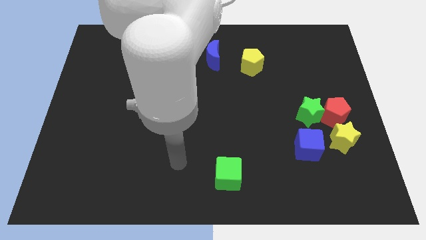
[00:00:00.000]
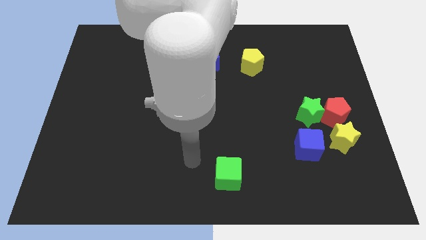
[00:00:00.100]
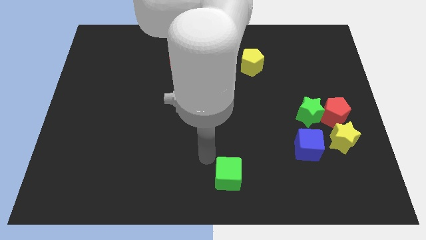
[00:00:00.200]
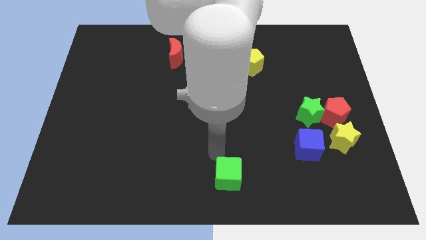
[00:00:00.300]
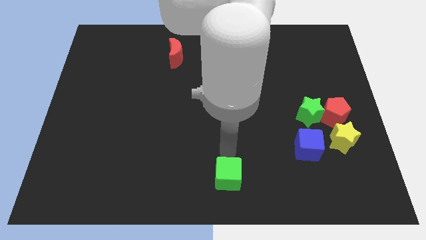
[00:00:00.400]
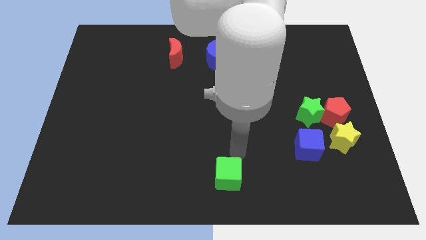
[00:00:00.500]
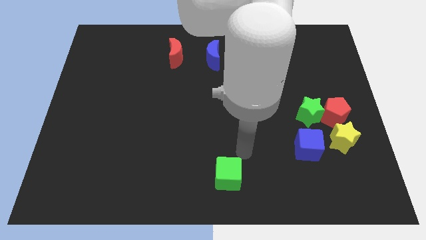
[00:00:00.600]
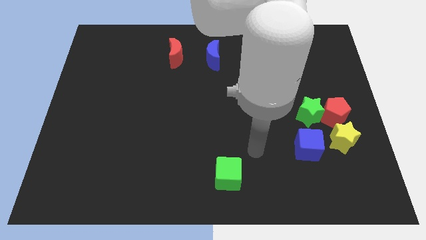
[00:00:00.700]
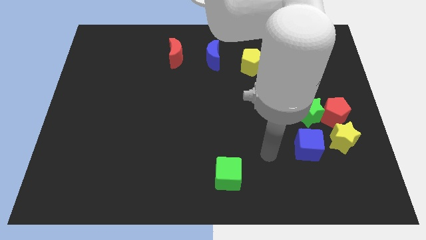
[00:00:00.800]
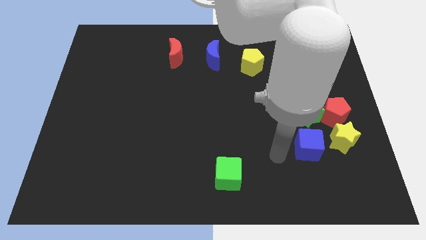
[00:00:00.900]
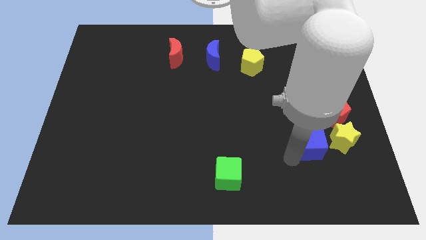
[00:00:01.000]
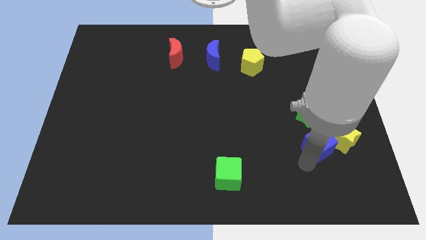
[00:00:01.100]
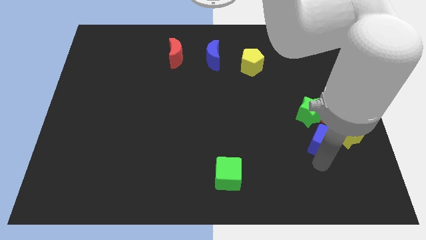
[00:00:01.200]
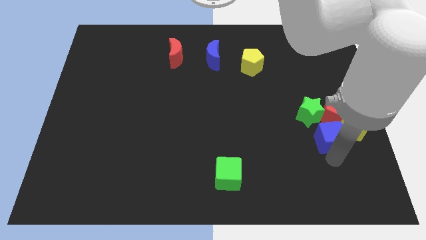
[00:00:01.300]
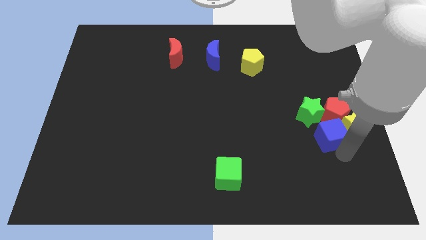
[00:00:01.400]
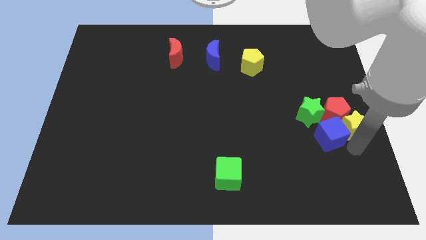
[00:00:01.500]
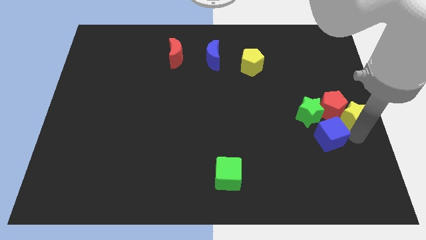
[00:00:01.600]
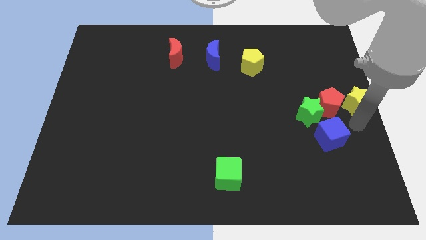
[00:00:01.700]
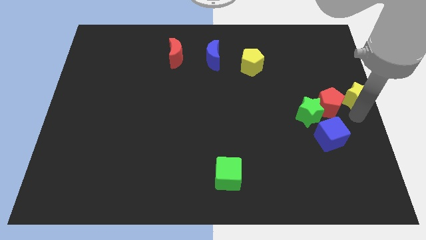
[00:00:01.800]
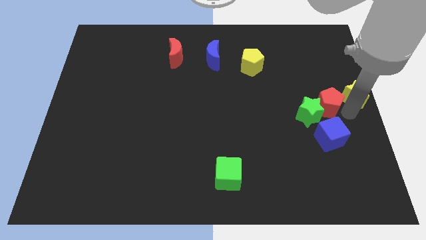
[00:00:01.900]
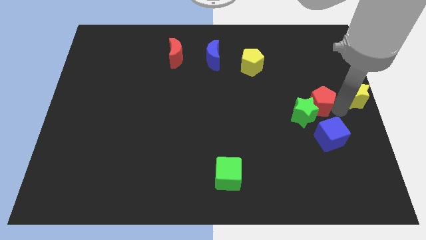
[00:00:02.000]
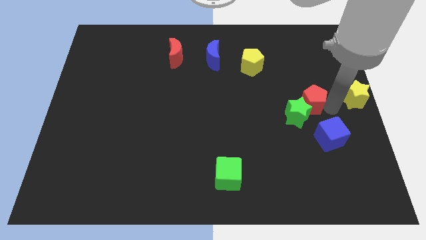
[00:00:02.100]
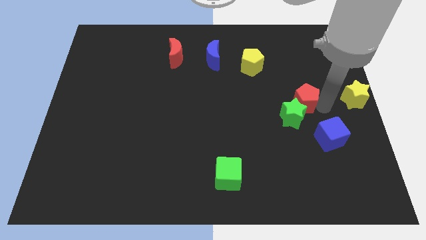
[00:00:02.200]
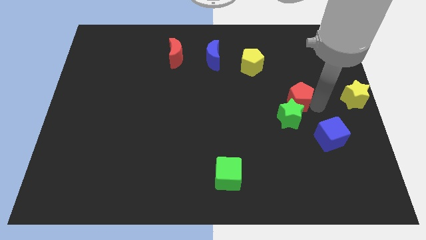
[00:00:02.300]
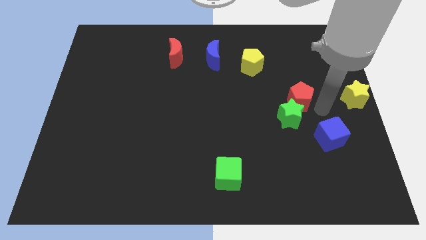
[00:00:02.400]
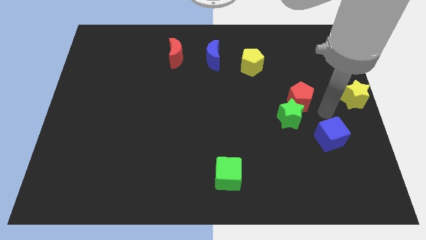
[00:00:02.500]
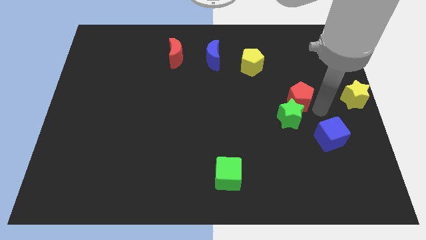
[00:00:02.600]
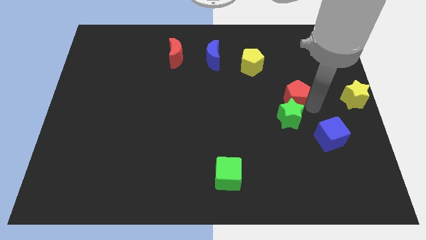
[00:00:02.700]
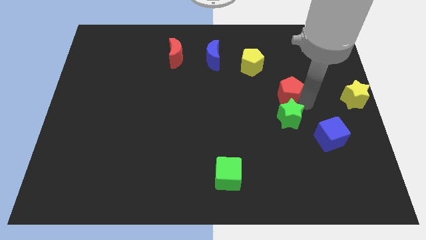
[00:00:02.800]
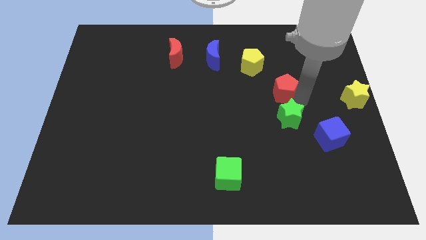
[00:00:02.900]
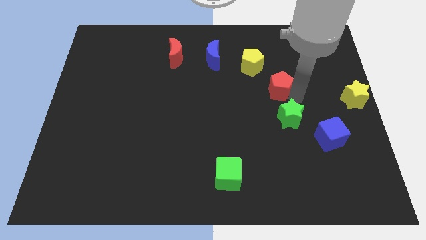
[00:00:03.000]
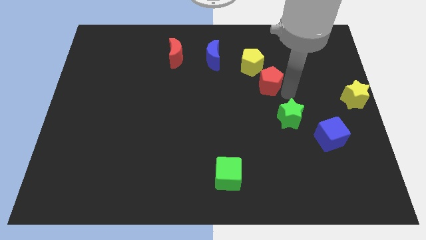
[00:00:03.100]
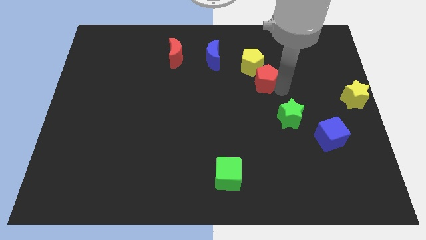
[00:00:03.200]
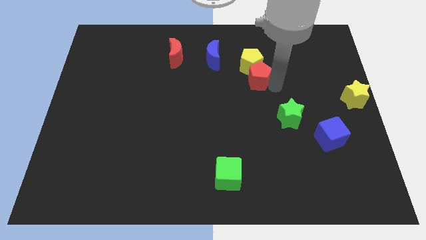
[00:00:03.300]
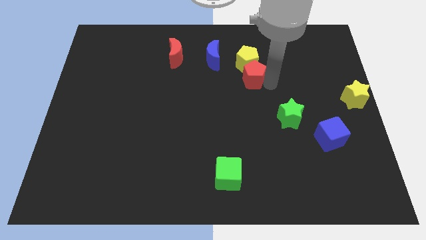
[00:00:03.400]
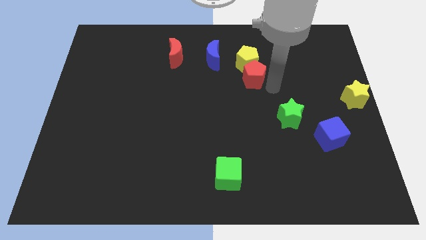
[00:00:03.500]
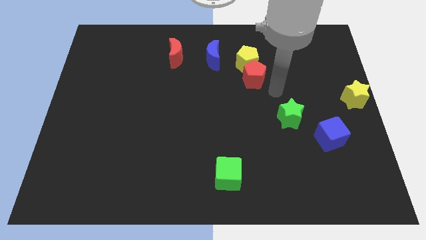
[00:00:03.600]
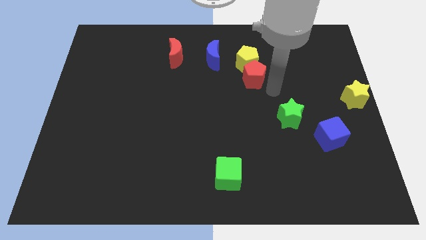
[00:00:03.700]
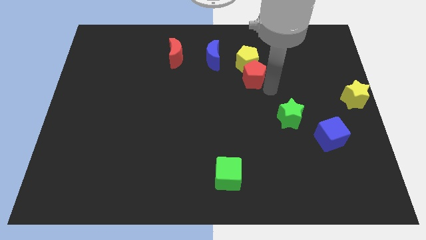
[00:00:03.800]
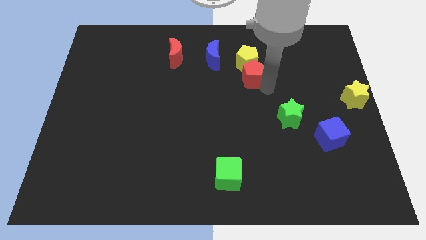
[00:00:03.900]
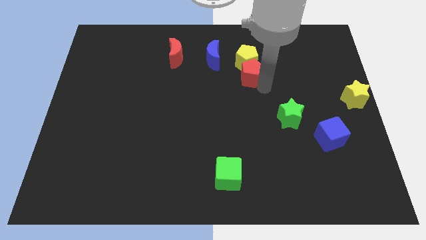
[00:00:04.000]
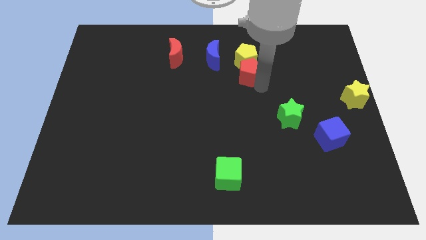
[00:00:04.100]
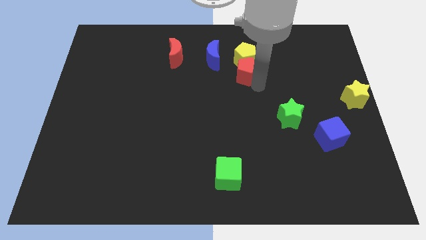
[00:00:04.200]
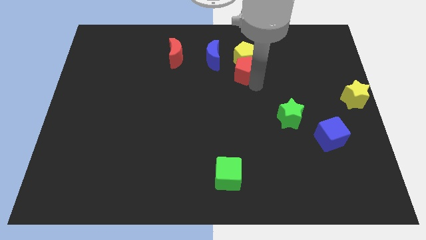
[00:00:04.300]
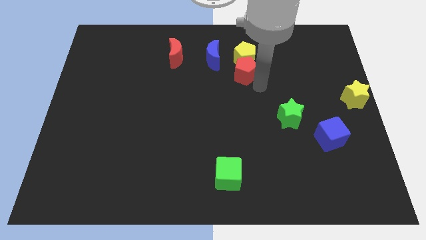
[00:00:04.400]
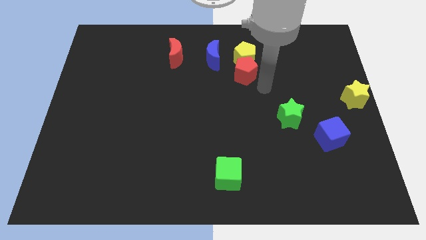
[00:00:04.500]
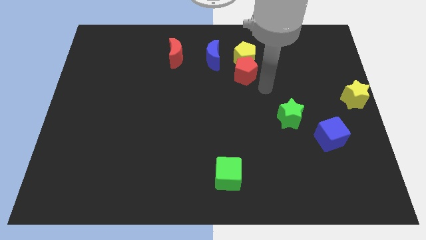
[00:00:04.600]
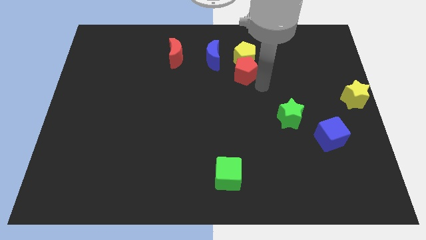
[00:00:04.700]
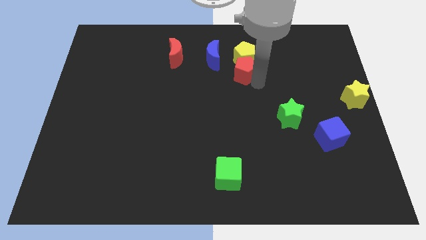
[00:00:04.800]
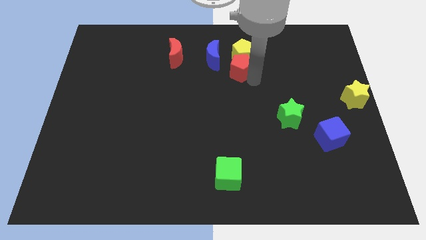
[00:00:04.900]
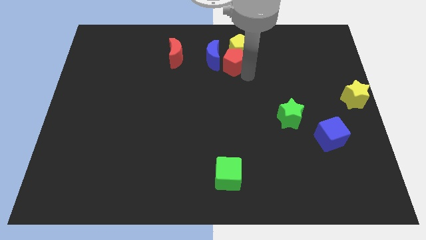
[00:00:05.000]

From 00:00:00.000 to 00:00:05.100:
slide the red pentagon towards the blue moon

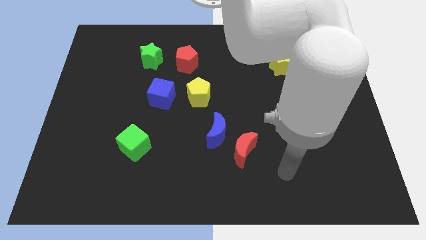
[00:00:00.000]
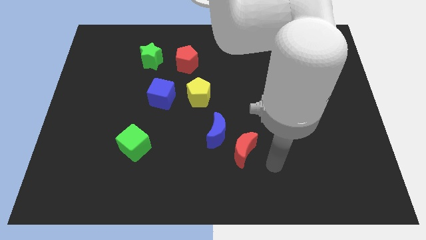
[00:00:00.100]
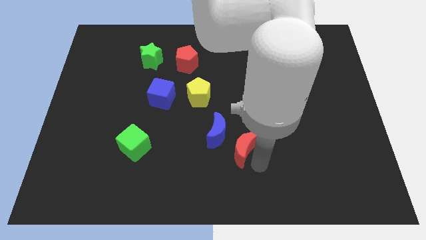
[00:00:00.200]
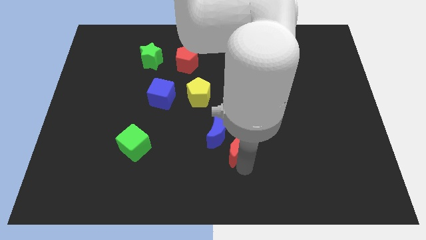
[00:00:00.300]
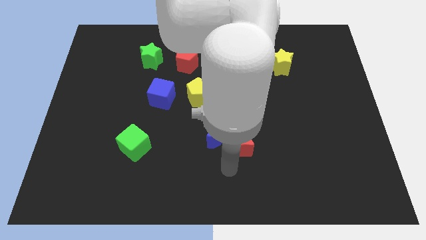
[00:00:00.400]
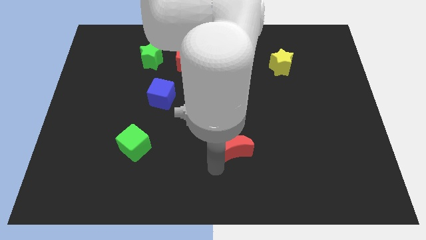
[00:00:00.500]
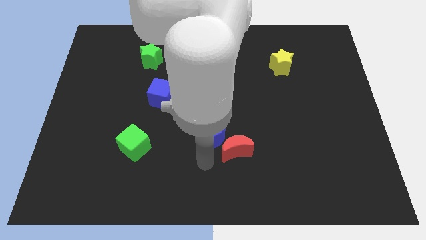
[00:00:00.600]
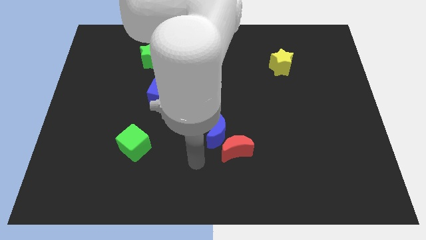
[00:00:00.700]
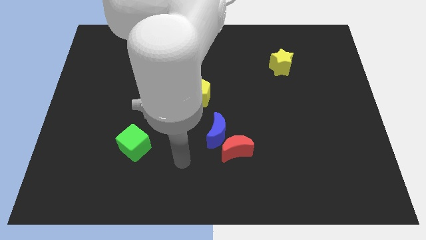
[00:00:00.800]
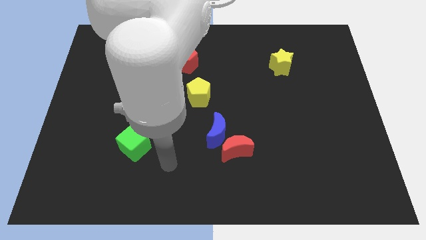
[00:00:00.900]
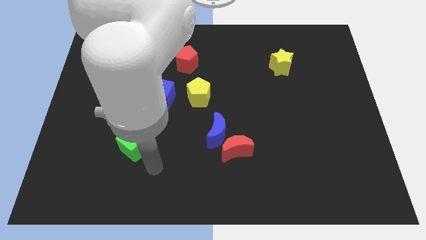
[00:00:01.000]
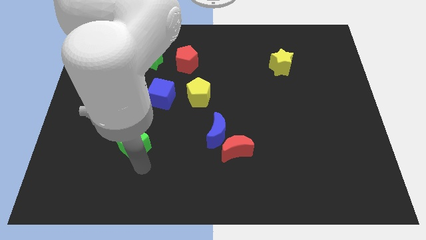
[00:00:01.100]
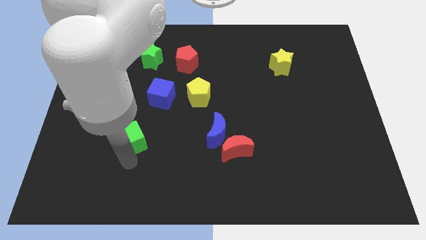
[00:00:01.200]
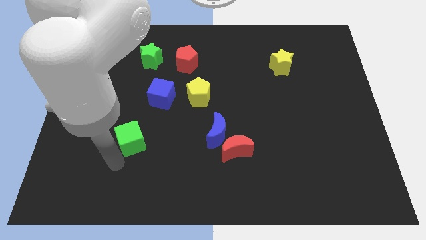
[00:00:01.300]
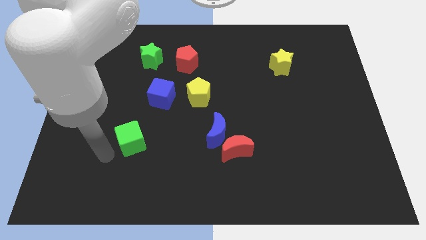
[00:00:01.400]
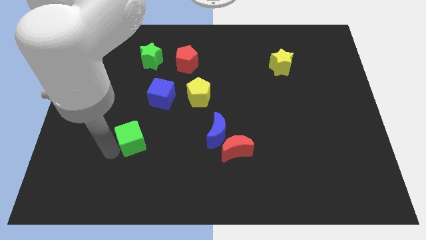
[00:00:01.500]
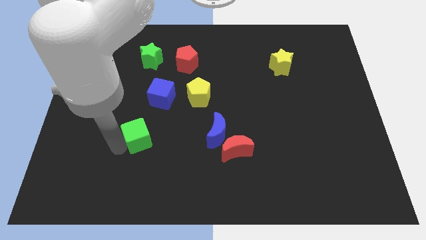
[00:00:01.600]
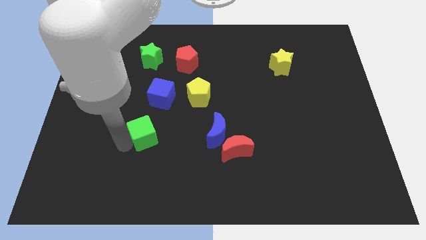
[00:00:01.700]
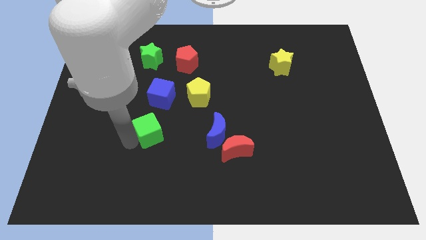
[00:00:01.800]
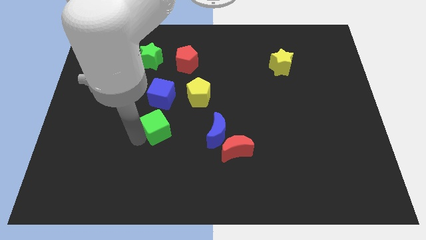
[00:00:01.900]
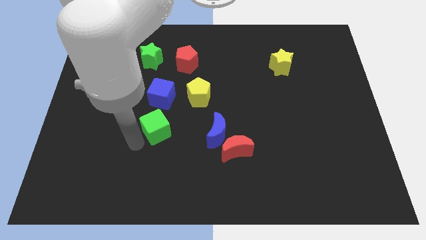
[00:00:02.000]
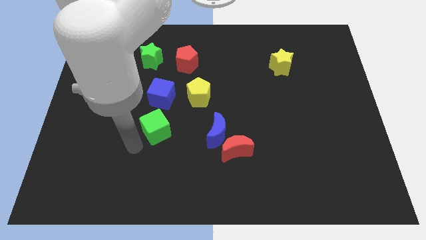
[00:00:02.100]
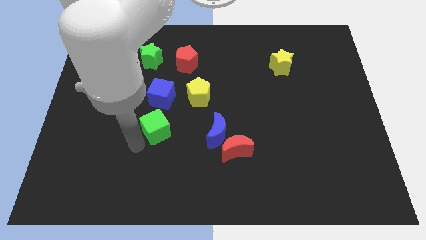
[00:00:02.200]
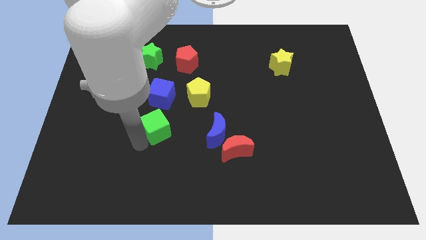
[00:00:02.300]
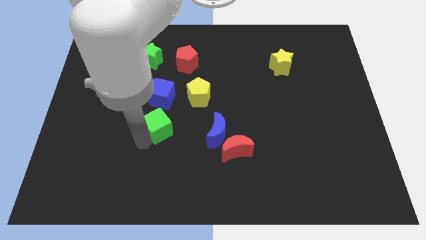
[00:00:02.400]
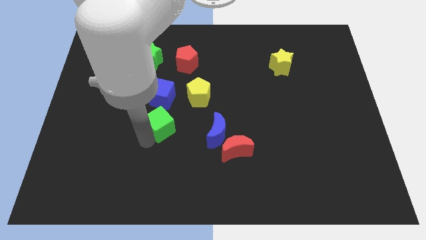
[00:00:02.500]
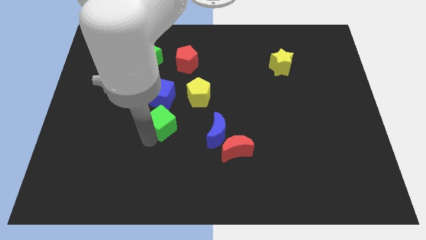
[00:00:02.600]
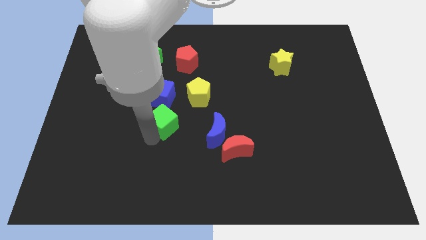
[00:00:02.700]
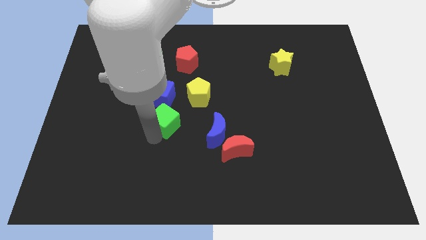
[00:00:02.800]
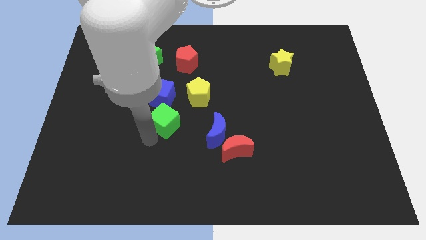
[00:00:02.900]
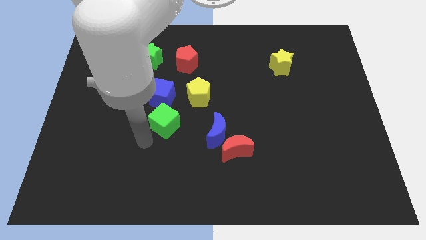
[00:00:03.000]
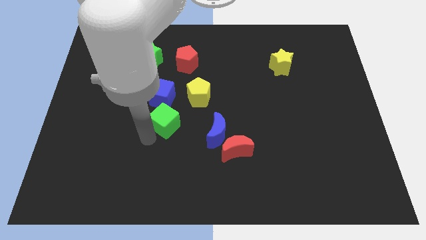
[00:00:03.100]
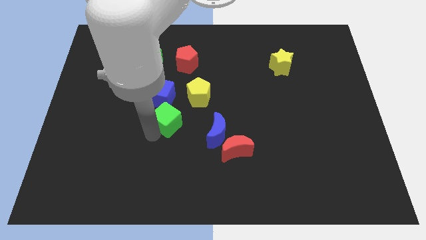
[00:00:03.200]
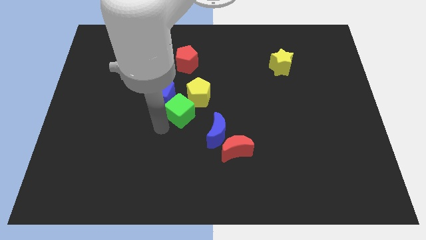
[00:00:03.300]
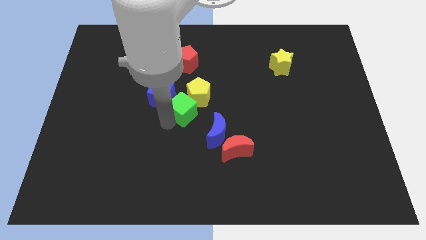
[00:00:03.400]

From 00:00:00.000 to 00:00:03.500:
move the green cube towards the yellow pentagon
